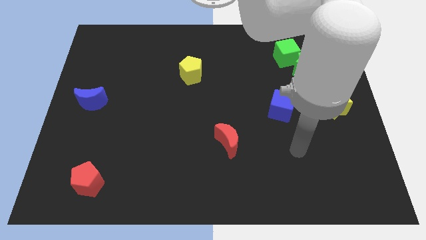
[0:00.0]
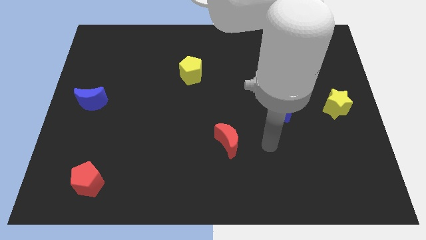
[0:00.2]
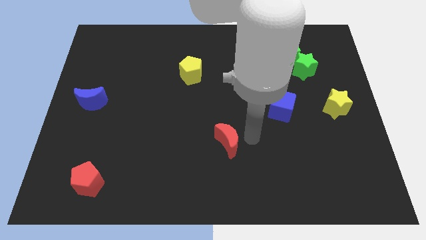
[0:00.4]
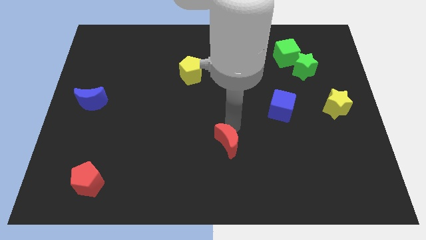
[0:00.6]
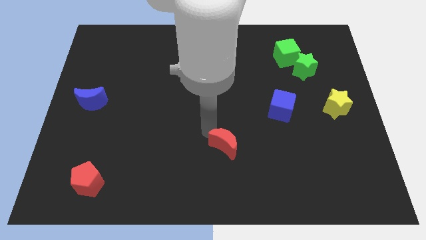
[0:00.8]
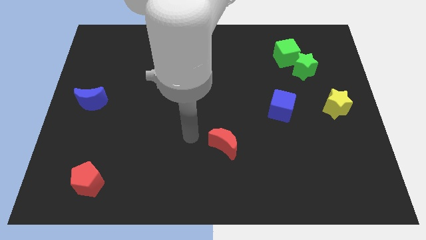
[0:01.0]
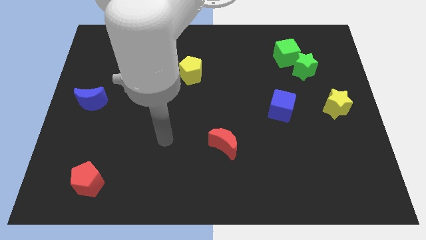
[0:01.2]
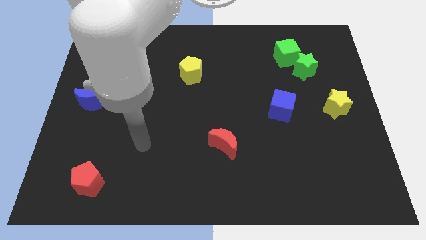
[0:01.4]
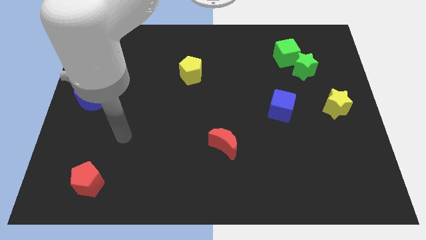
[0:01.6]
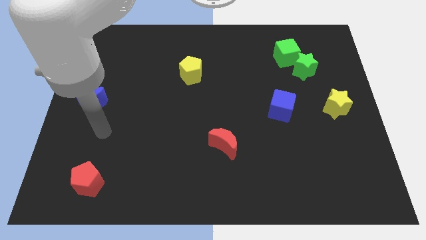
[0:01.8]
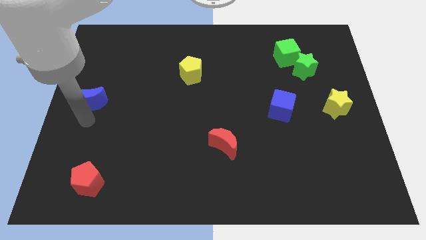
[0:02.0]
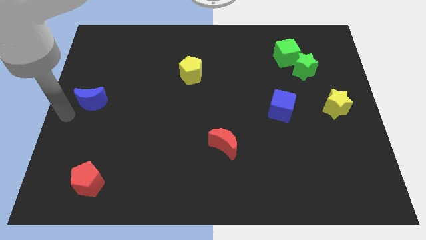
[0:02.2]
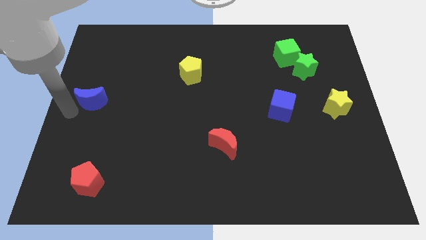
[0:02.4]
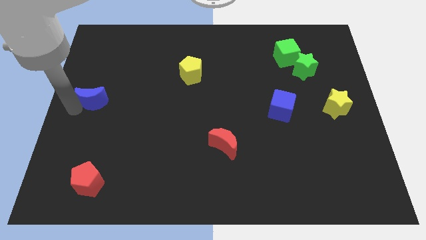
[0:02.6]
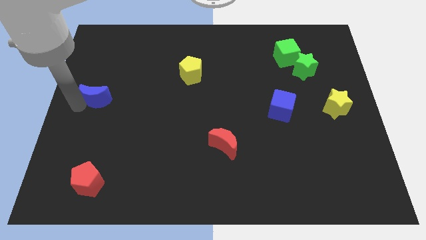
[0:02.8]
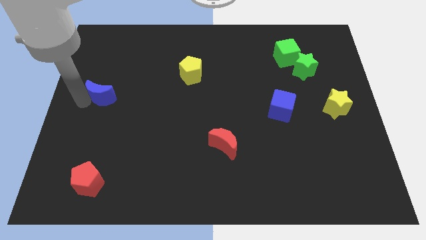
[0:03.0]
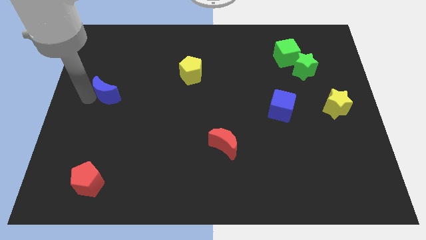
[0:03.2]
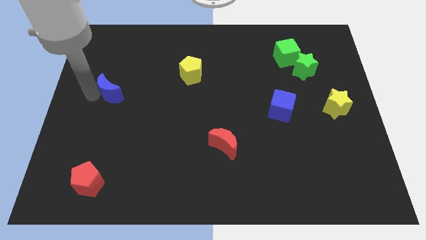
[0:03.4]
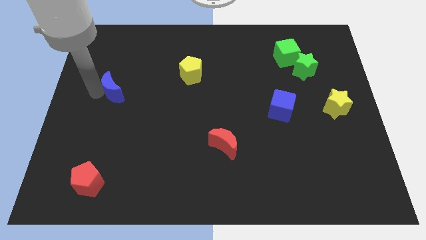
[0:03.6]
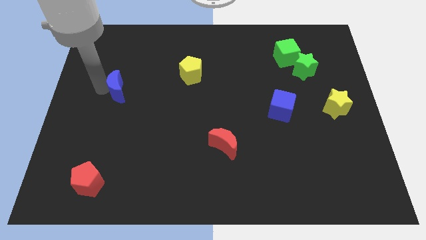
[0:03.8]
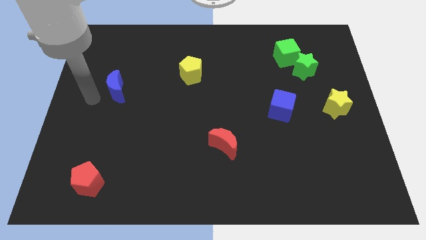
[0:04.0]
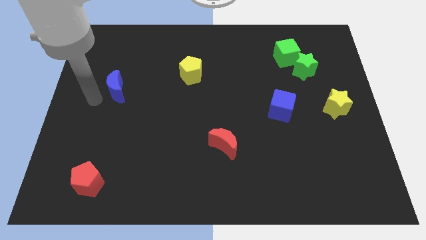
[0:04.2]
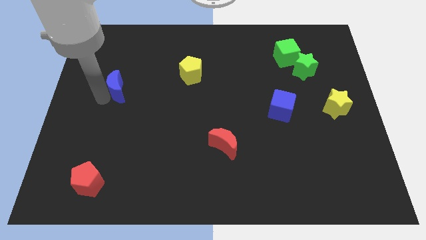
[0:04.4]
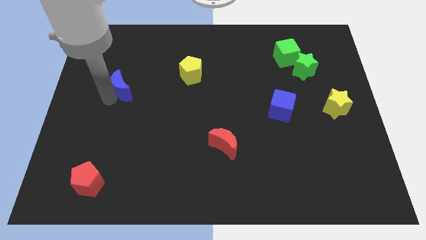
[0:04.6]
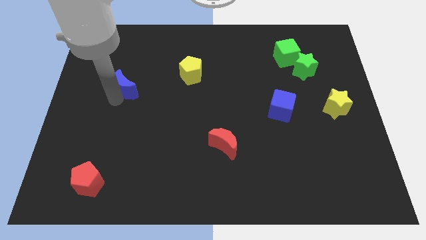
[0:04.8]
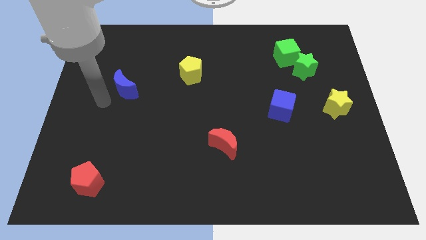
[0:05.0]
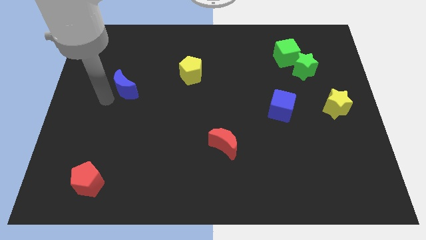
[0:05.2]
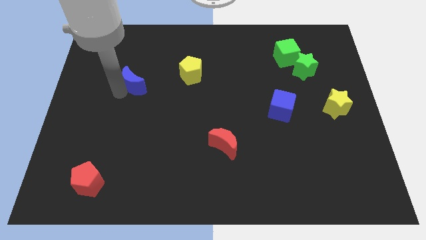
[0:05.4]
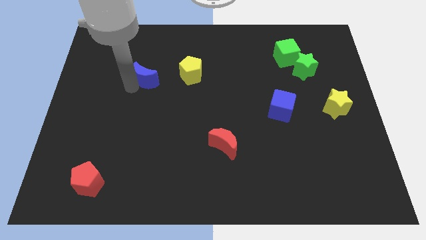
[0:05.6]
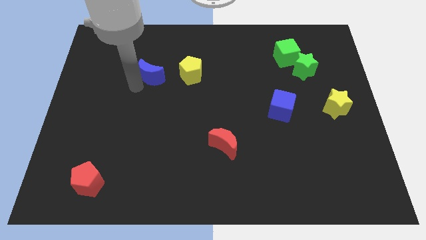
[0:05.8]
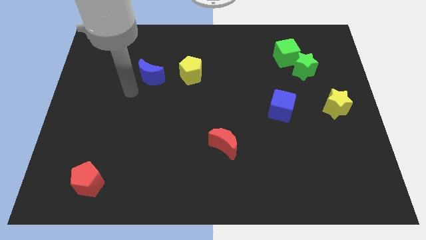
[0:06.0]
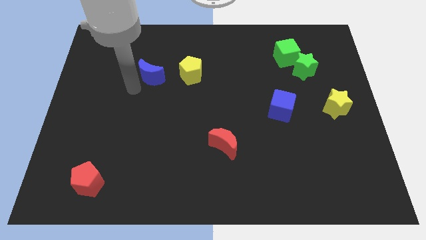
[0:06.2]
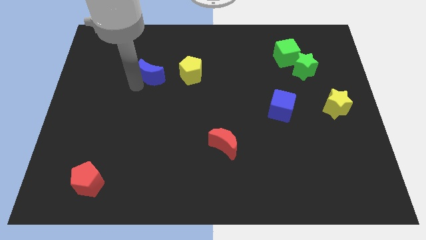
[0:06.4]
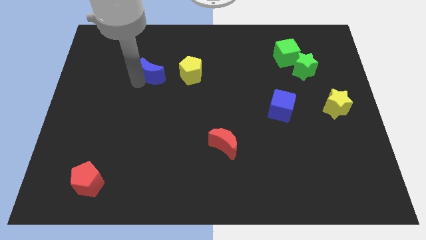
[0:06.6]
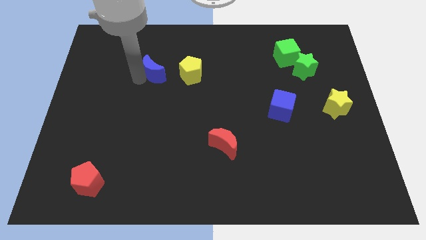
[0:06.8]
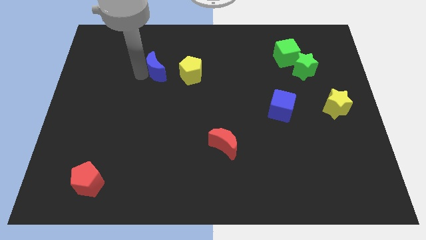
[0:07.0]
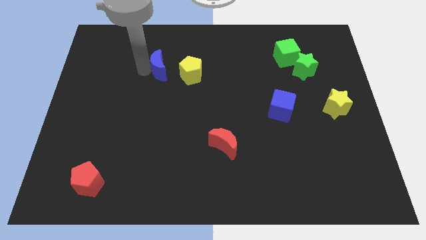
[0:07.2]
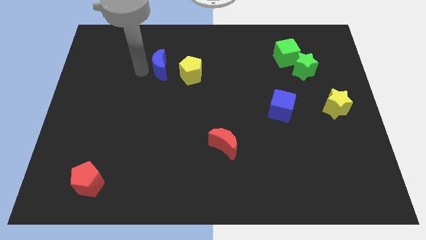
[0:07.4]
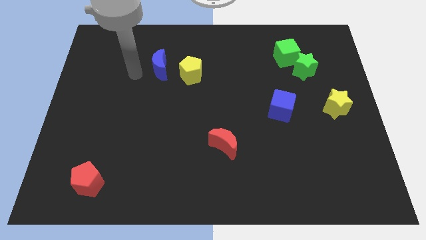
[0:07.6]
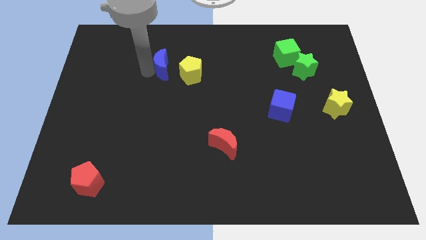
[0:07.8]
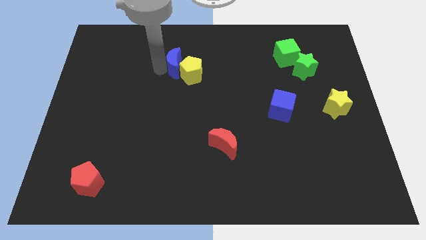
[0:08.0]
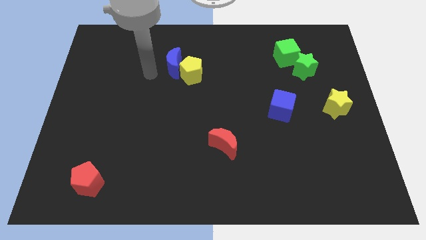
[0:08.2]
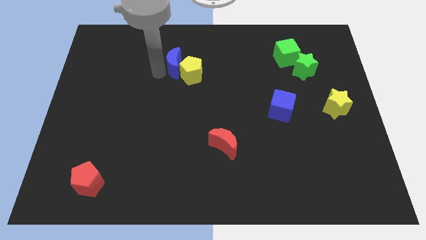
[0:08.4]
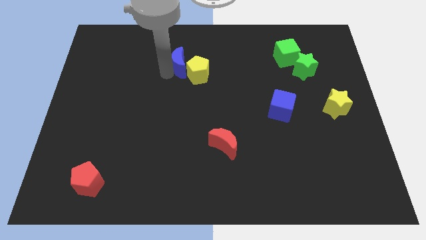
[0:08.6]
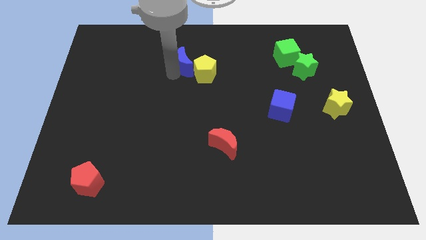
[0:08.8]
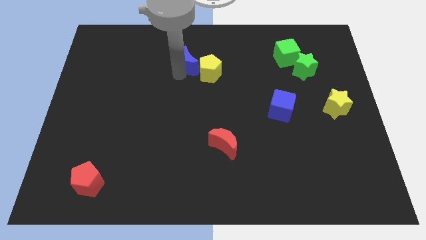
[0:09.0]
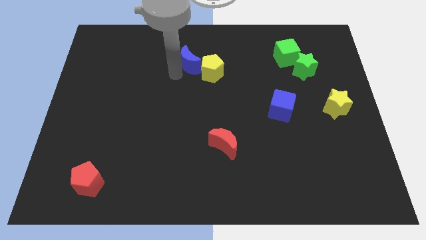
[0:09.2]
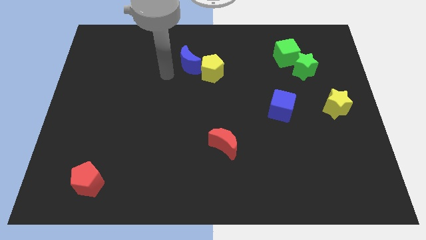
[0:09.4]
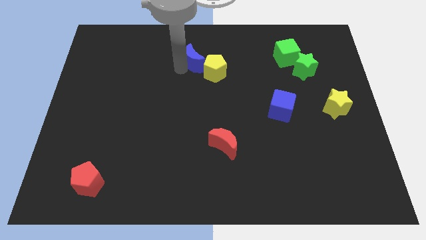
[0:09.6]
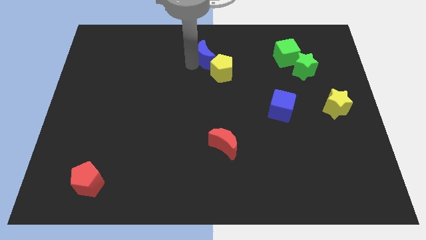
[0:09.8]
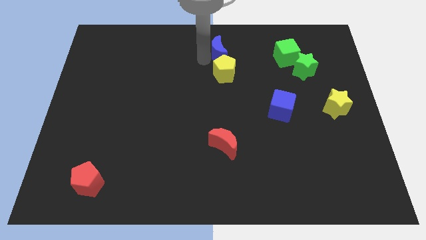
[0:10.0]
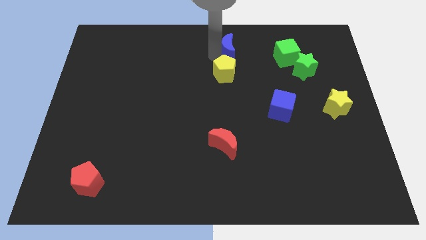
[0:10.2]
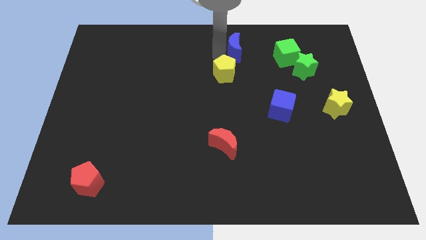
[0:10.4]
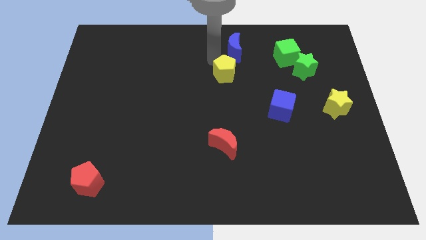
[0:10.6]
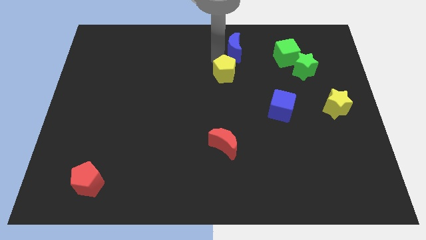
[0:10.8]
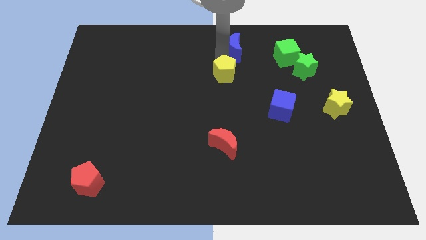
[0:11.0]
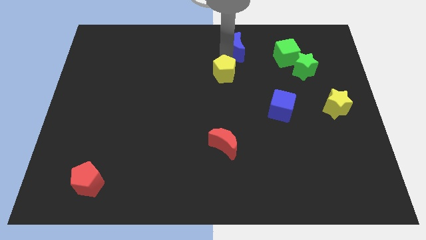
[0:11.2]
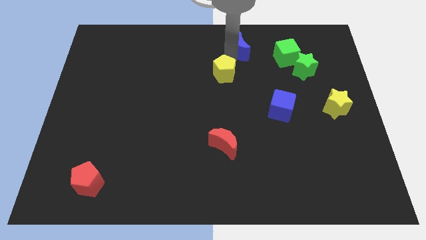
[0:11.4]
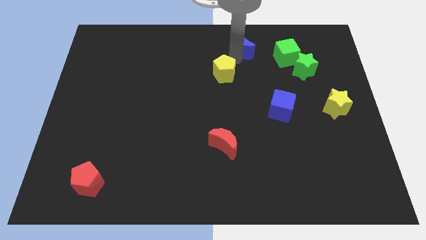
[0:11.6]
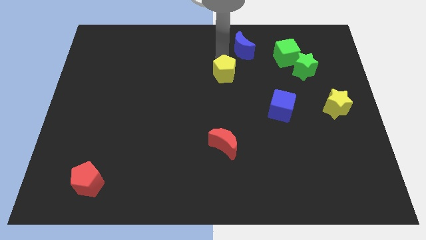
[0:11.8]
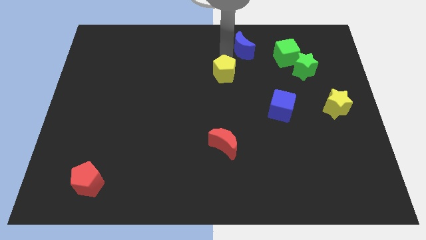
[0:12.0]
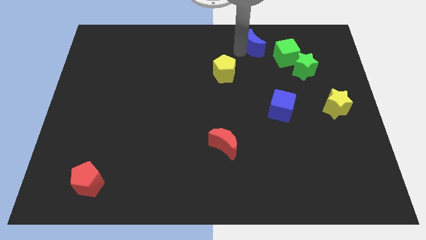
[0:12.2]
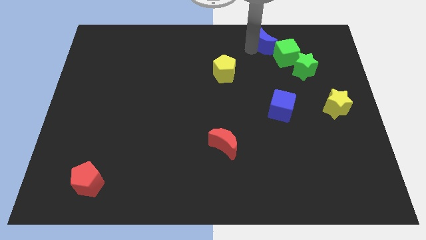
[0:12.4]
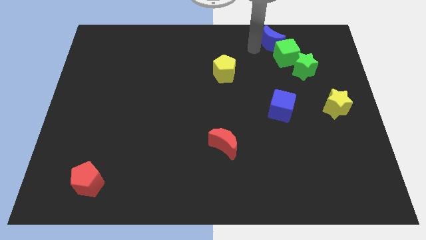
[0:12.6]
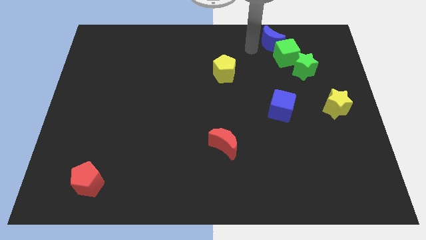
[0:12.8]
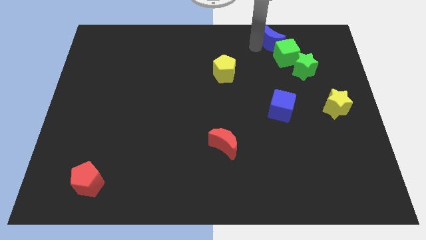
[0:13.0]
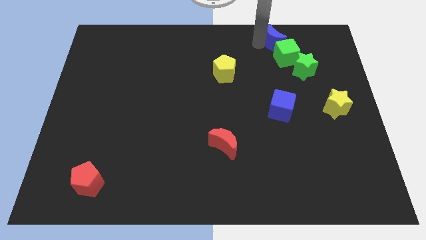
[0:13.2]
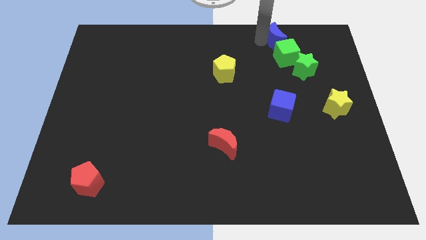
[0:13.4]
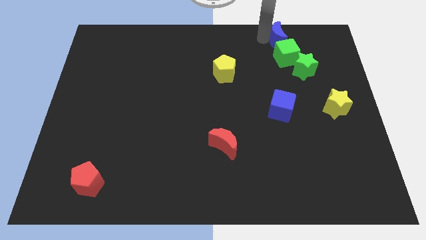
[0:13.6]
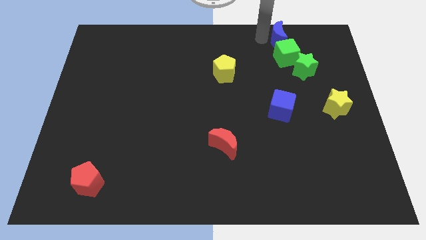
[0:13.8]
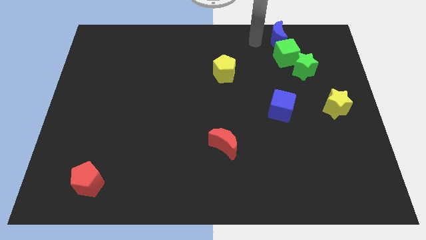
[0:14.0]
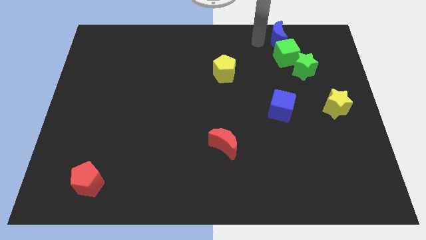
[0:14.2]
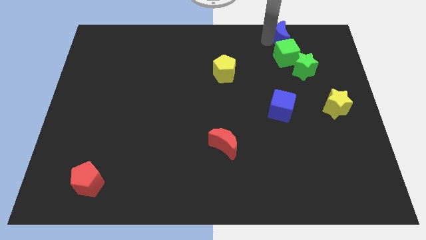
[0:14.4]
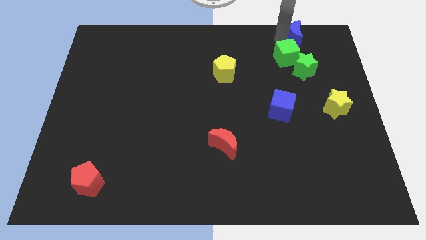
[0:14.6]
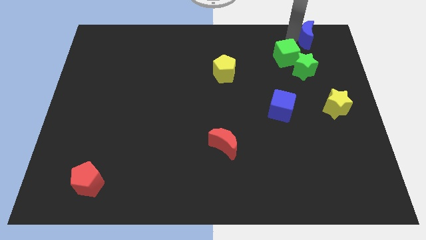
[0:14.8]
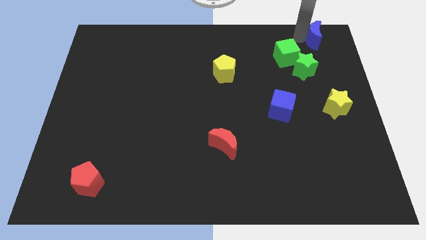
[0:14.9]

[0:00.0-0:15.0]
slide the blue moon to the upper right corner
